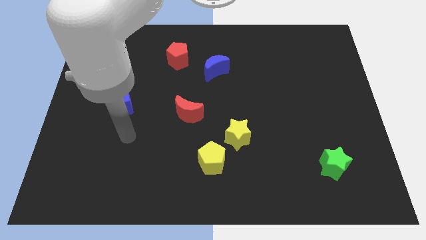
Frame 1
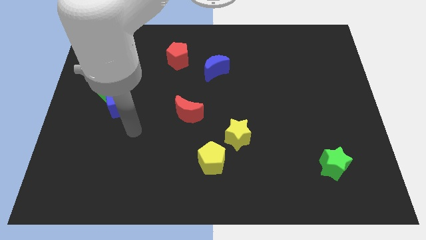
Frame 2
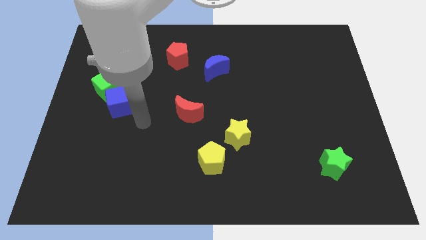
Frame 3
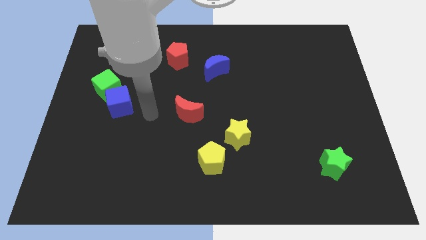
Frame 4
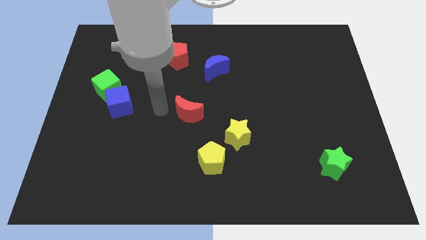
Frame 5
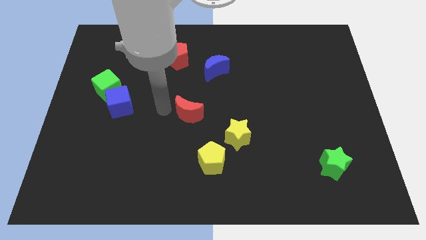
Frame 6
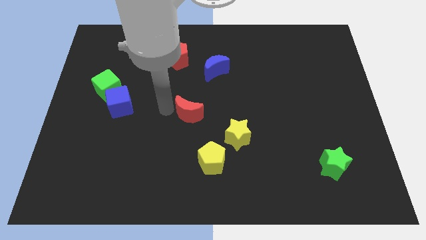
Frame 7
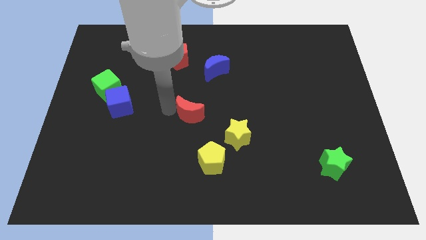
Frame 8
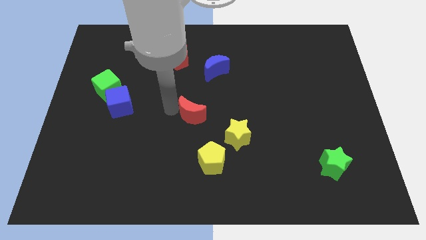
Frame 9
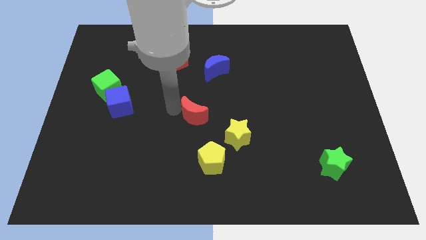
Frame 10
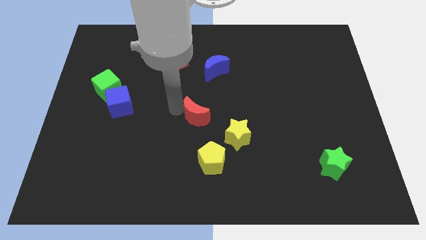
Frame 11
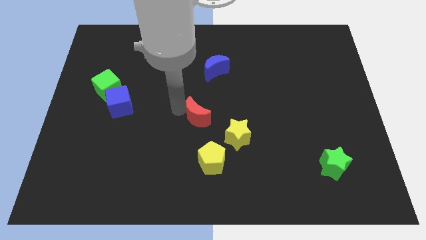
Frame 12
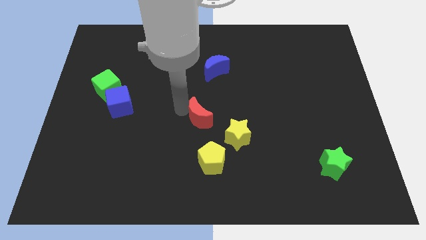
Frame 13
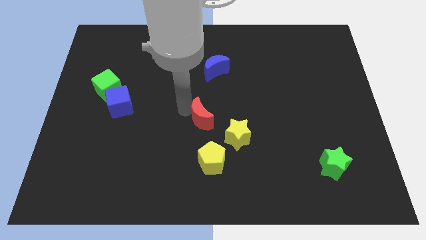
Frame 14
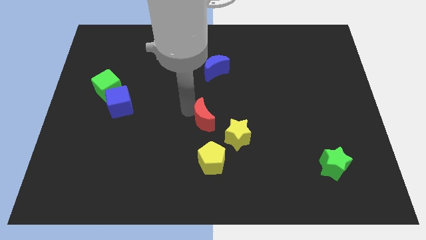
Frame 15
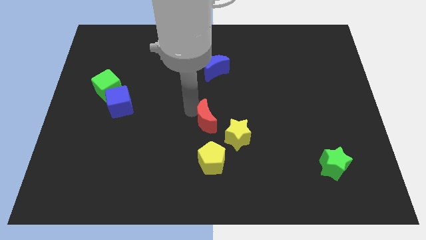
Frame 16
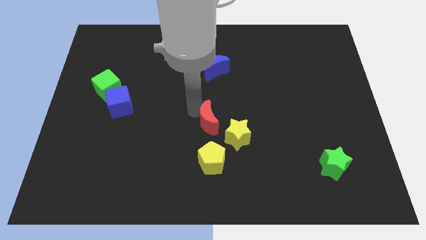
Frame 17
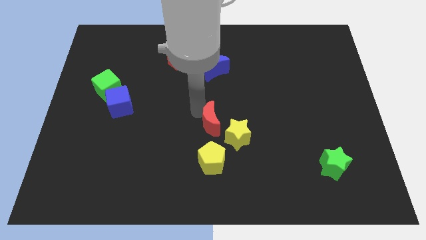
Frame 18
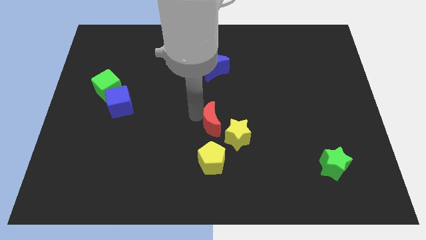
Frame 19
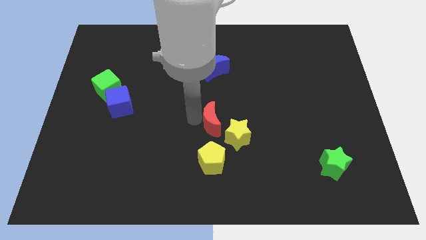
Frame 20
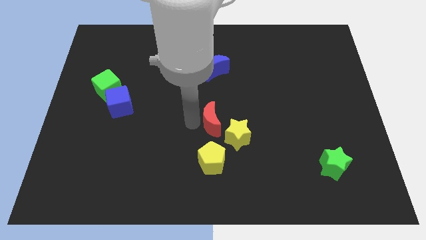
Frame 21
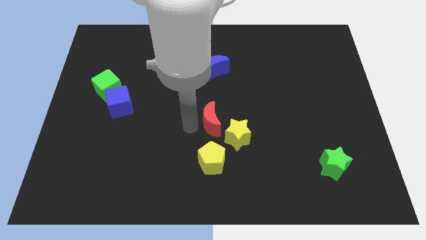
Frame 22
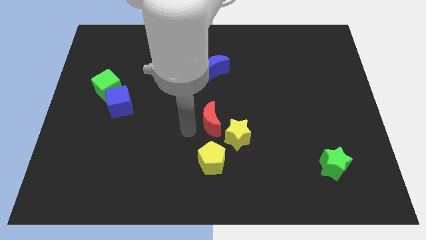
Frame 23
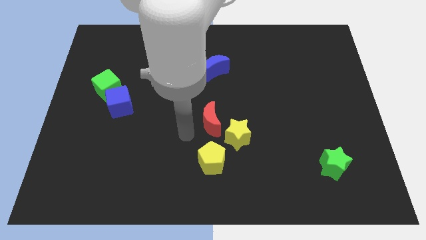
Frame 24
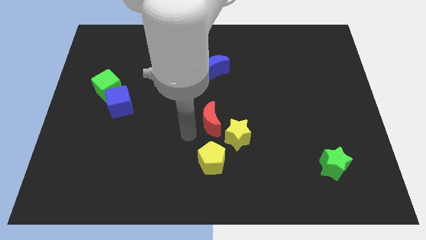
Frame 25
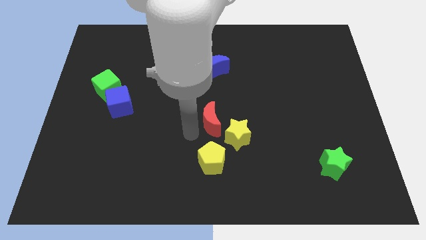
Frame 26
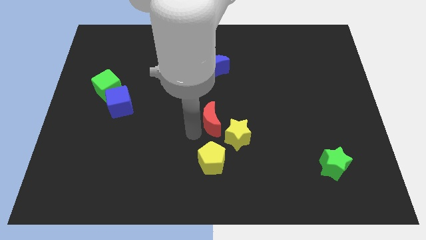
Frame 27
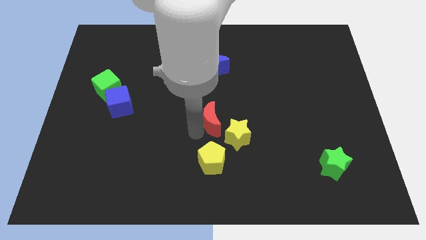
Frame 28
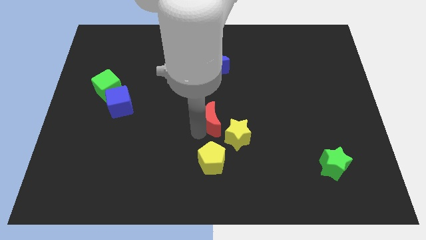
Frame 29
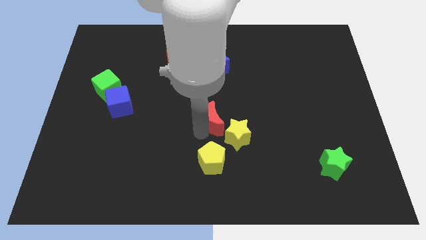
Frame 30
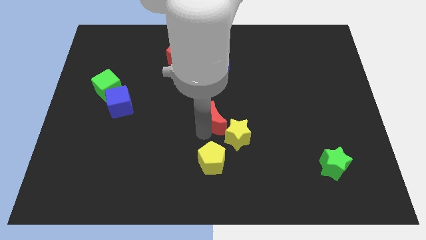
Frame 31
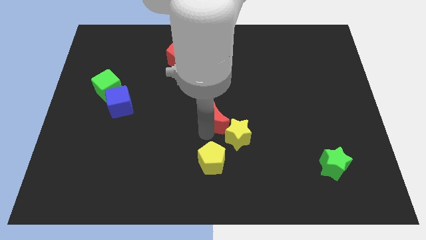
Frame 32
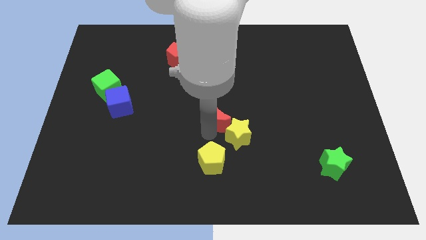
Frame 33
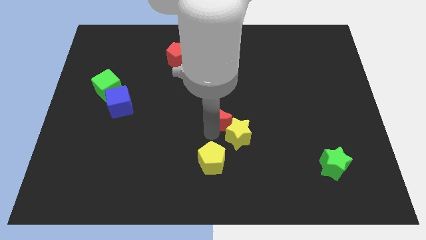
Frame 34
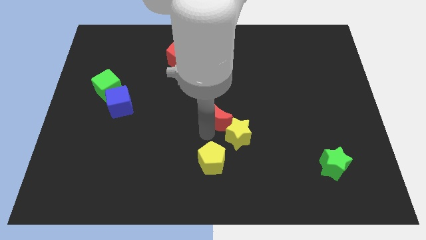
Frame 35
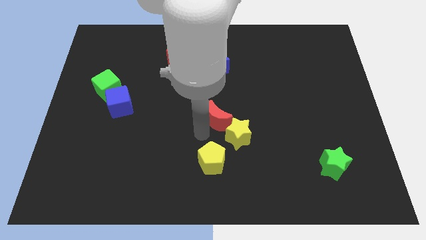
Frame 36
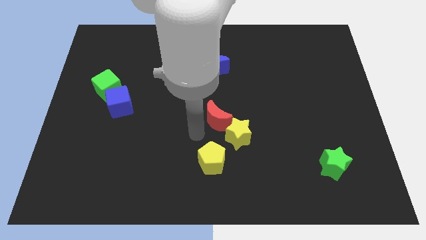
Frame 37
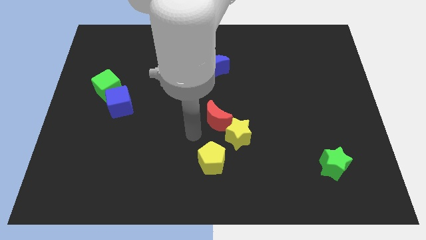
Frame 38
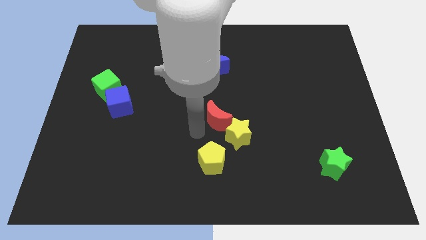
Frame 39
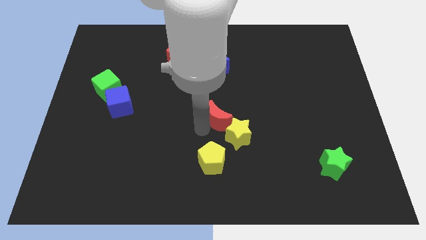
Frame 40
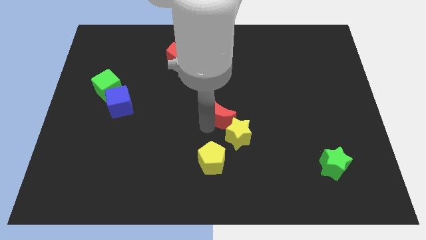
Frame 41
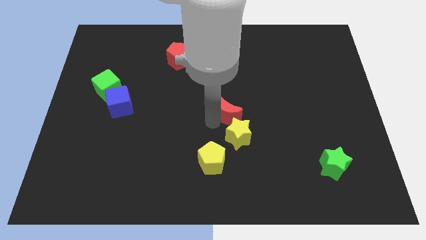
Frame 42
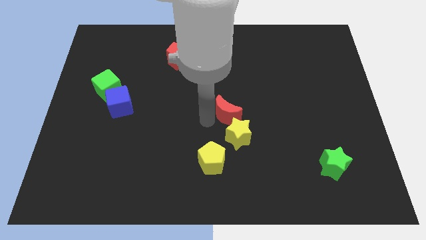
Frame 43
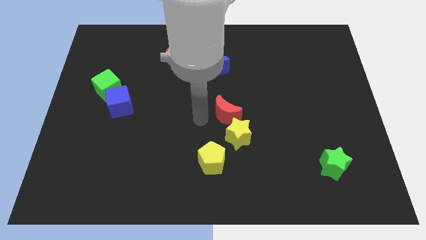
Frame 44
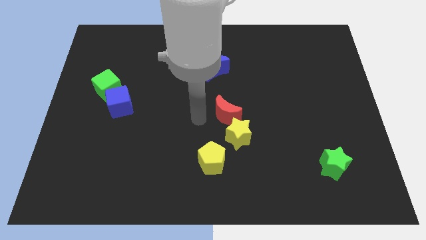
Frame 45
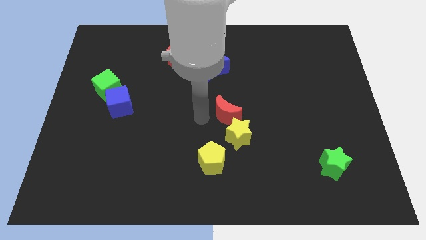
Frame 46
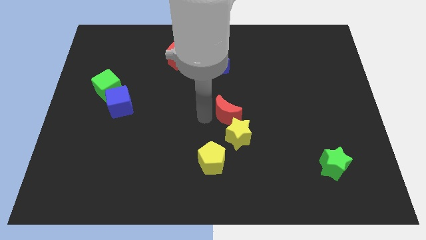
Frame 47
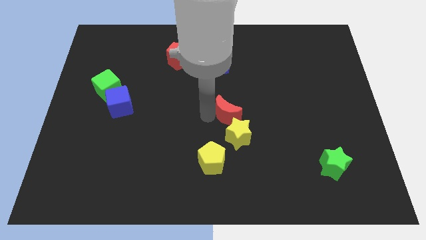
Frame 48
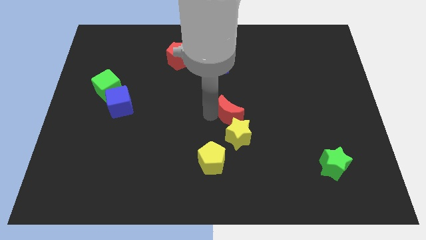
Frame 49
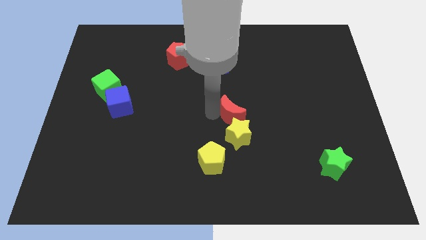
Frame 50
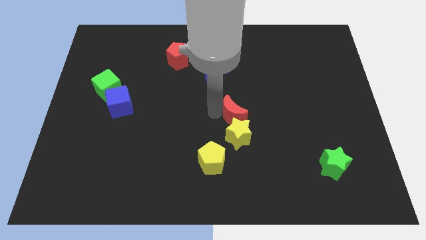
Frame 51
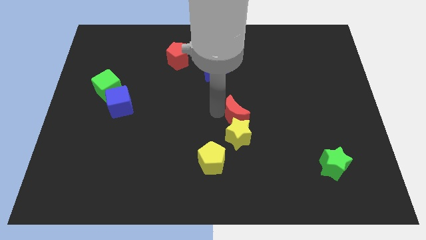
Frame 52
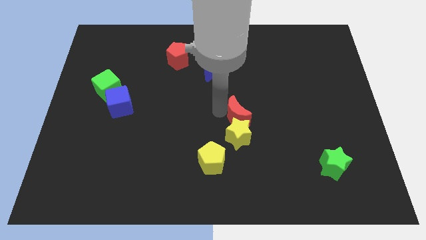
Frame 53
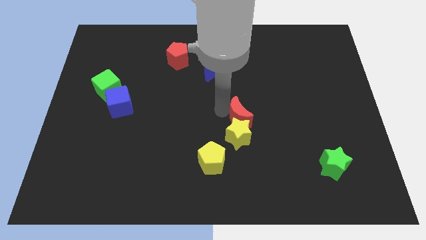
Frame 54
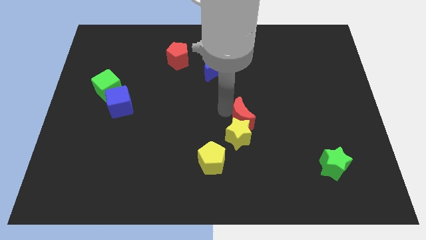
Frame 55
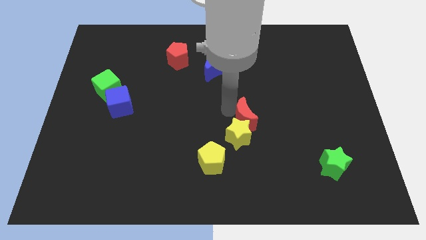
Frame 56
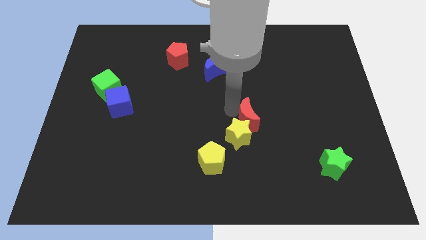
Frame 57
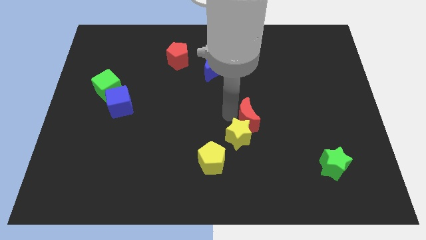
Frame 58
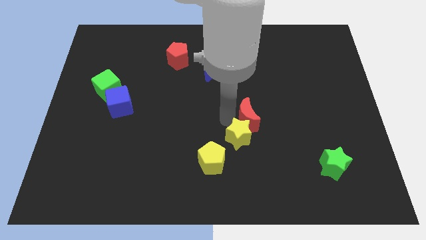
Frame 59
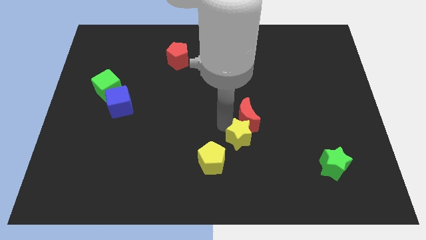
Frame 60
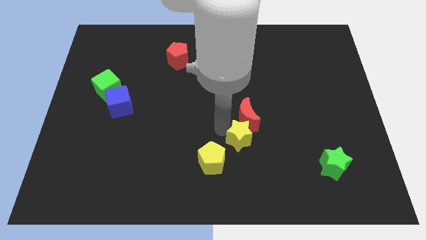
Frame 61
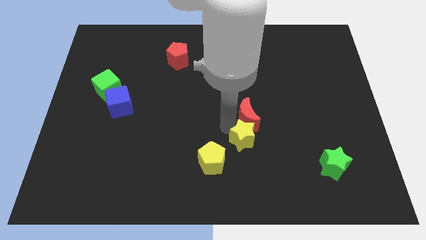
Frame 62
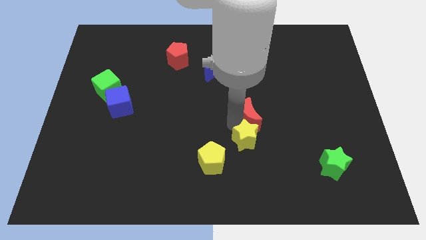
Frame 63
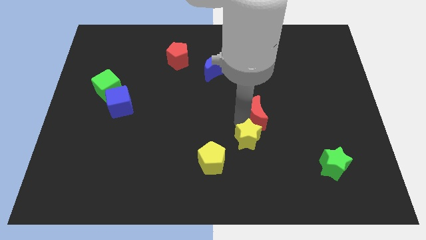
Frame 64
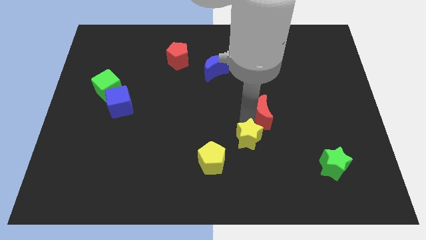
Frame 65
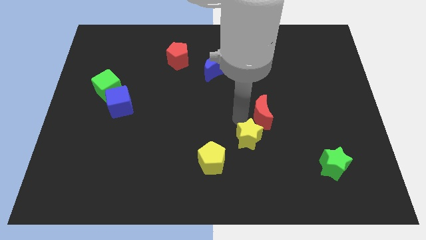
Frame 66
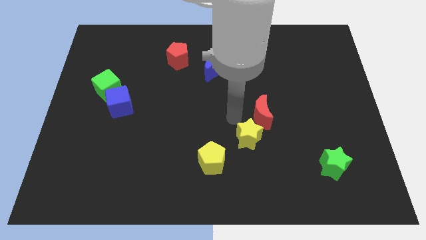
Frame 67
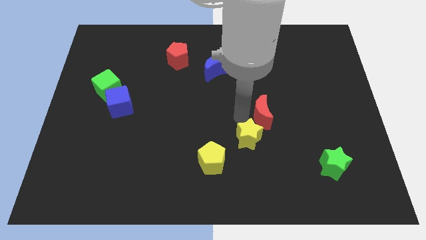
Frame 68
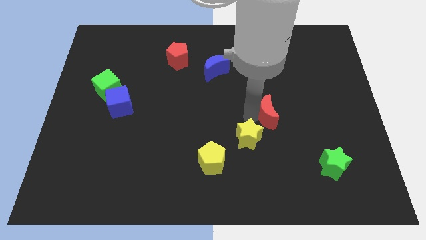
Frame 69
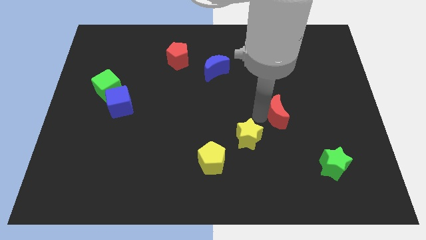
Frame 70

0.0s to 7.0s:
move the red moon to the right

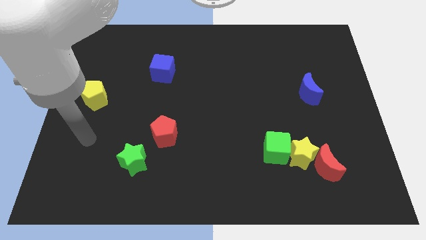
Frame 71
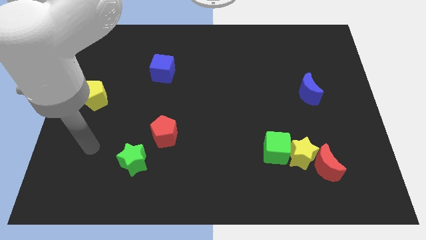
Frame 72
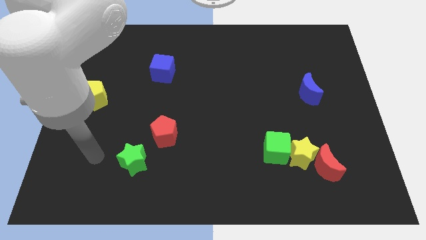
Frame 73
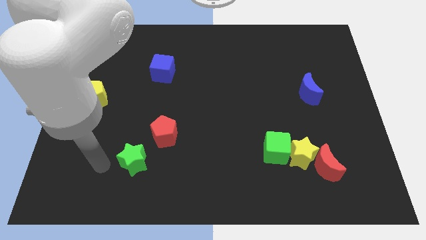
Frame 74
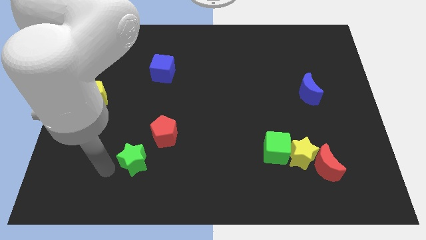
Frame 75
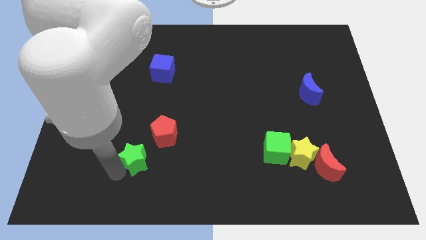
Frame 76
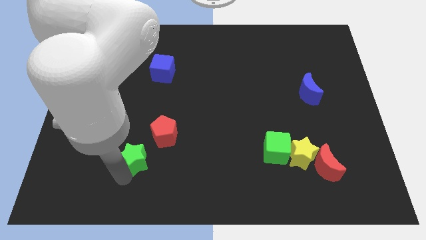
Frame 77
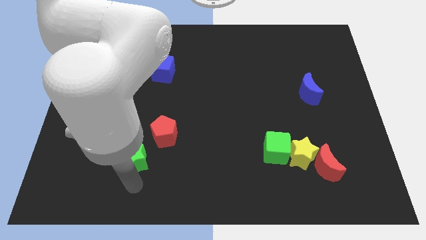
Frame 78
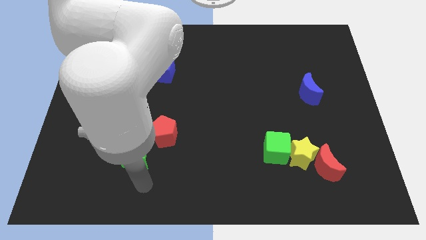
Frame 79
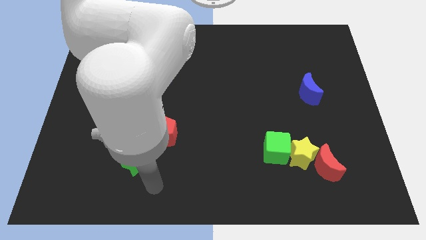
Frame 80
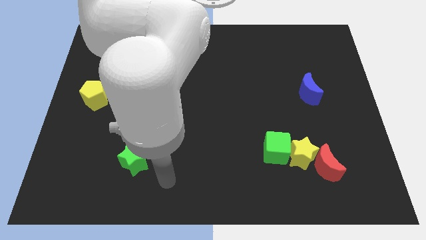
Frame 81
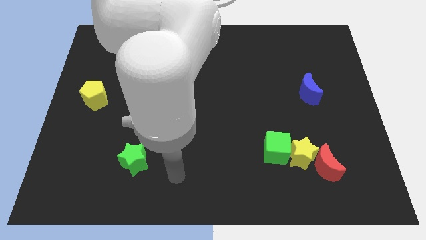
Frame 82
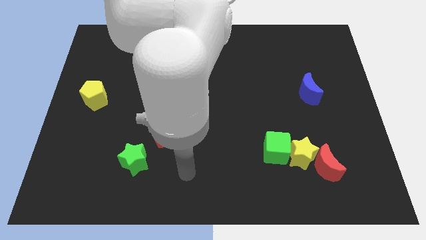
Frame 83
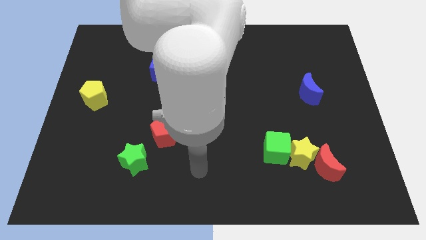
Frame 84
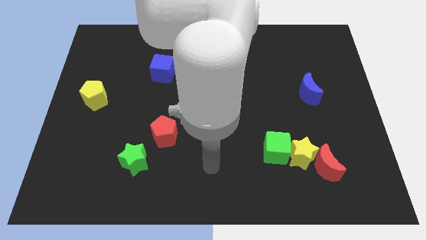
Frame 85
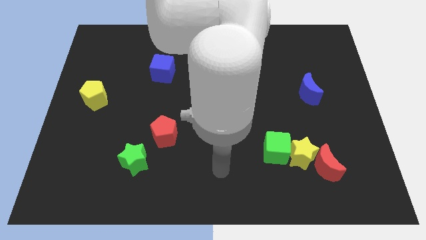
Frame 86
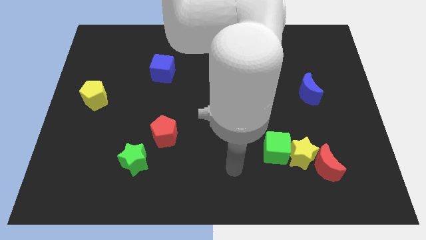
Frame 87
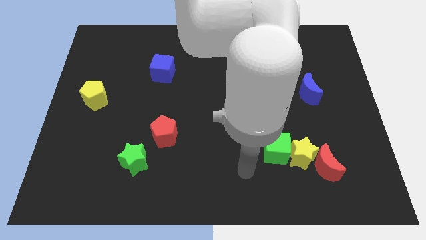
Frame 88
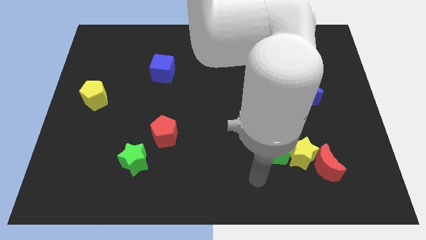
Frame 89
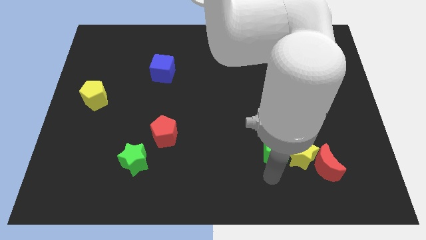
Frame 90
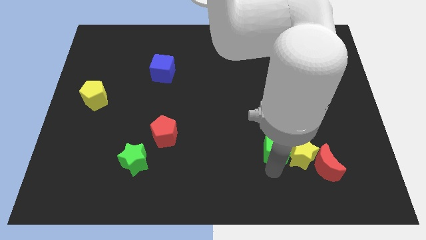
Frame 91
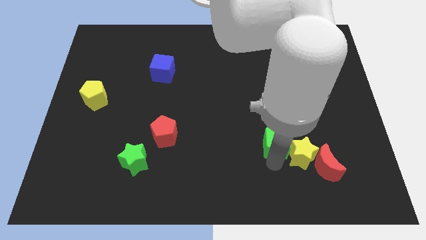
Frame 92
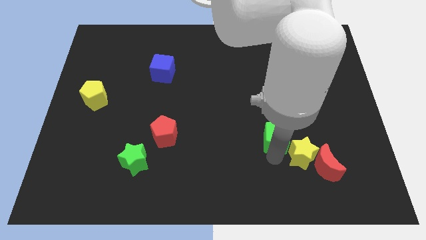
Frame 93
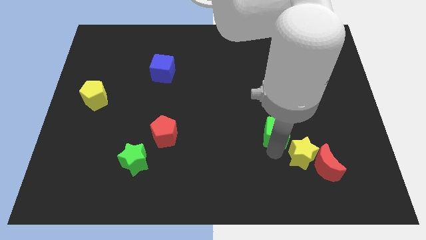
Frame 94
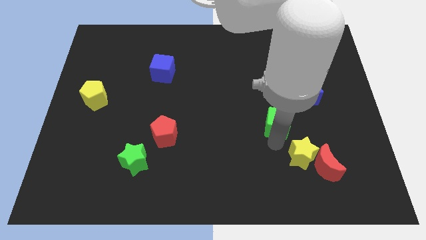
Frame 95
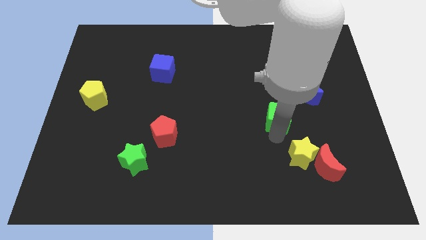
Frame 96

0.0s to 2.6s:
push the green cube slightly upwards
